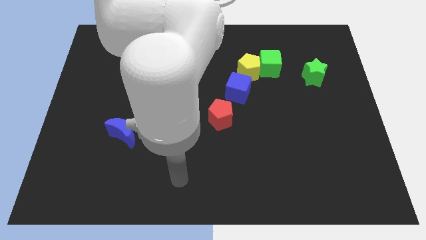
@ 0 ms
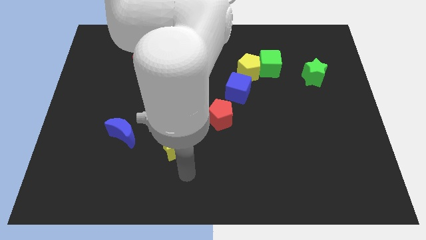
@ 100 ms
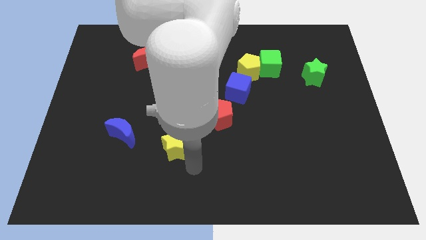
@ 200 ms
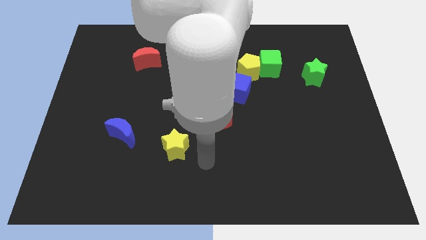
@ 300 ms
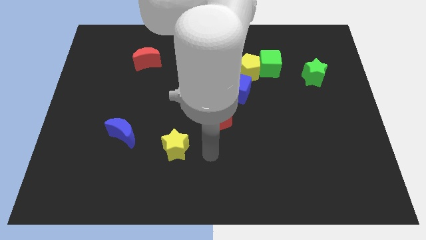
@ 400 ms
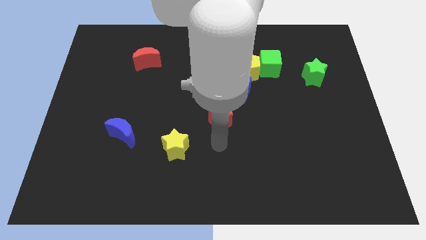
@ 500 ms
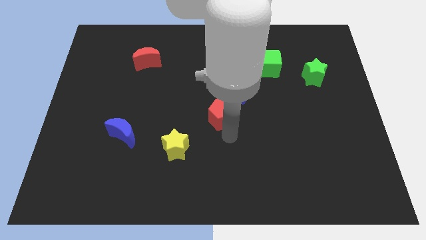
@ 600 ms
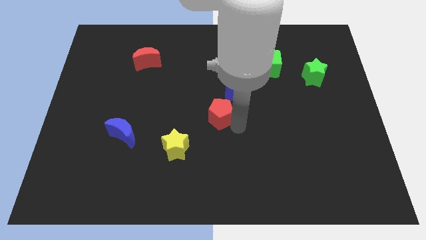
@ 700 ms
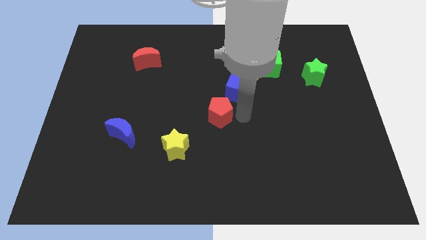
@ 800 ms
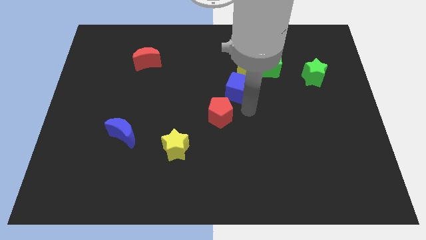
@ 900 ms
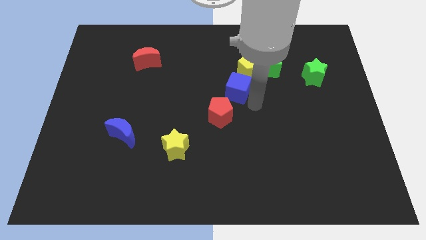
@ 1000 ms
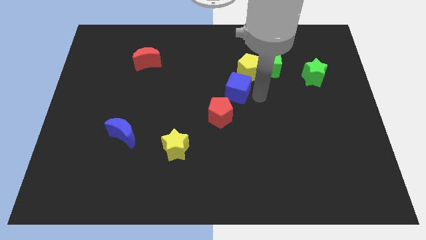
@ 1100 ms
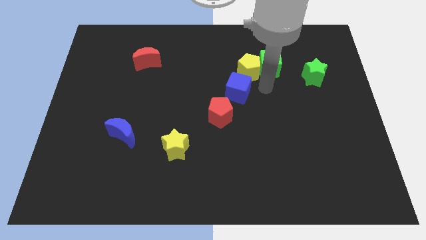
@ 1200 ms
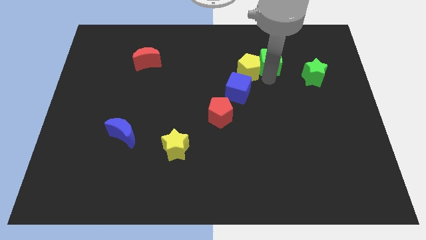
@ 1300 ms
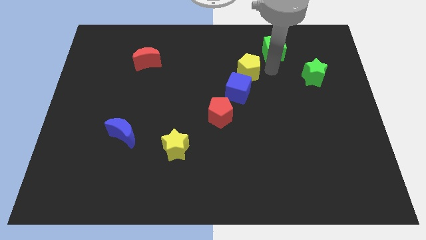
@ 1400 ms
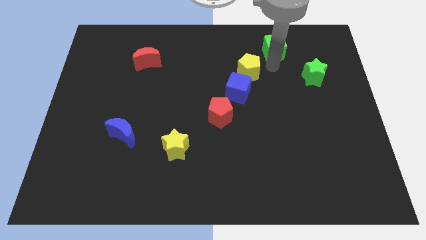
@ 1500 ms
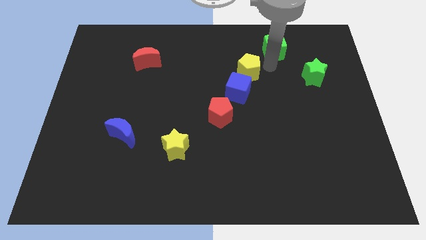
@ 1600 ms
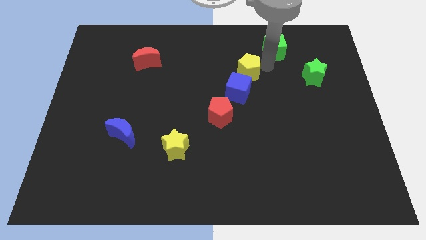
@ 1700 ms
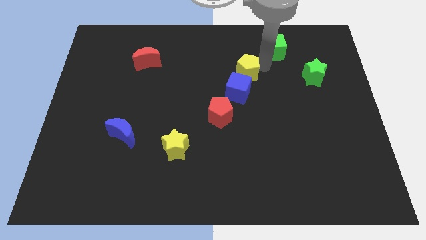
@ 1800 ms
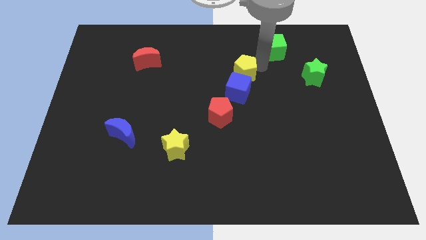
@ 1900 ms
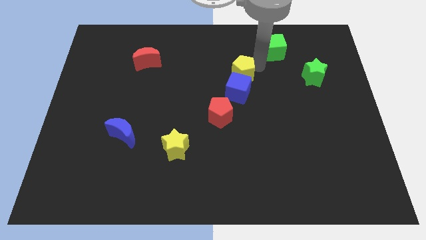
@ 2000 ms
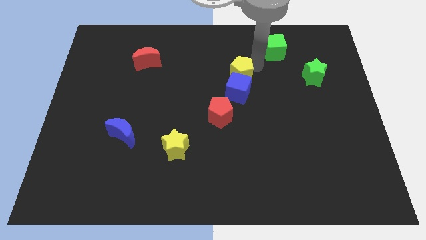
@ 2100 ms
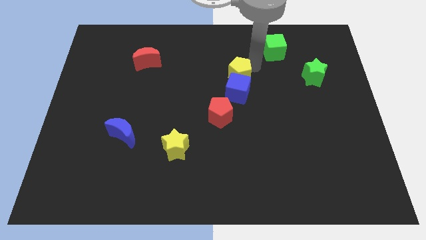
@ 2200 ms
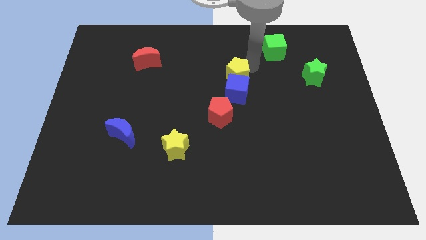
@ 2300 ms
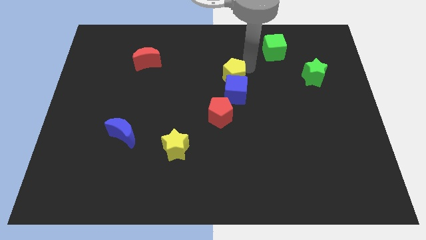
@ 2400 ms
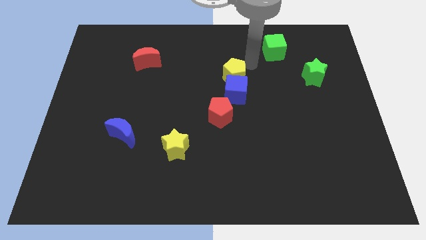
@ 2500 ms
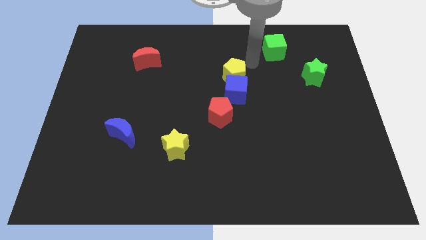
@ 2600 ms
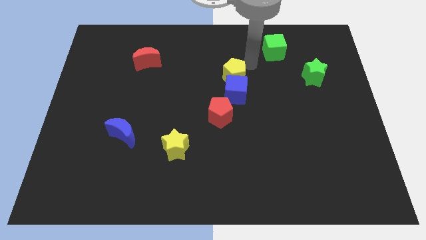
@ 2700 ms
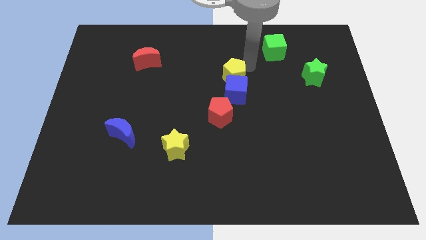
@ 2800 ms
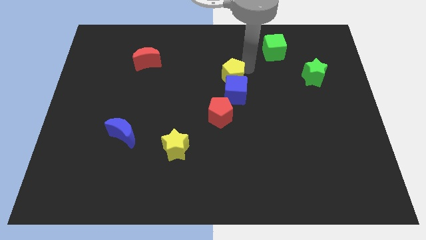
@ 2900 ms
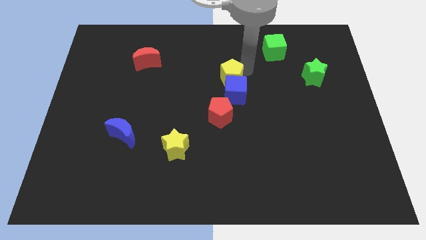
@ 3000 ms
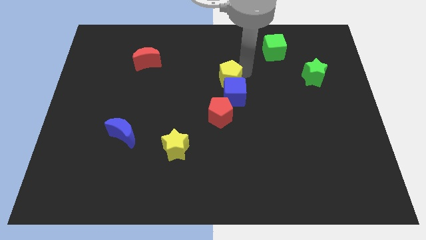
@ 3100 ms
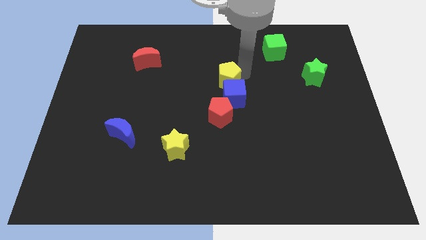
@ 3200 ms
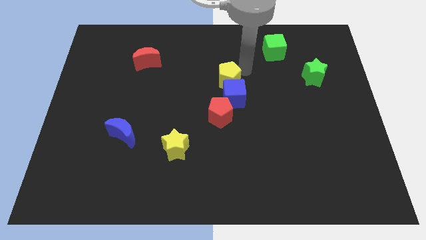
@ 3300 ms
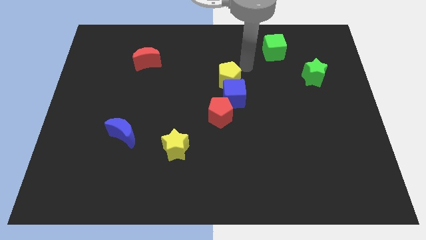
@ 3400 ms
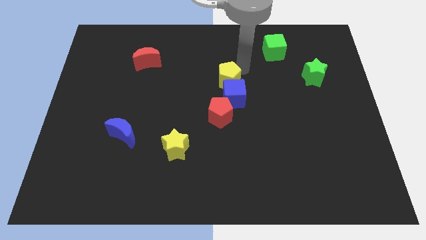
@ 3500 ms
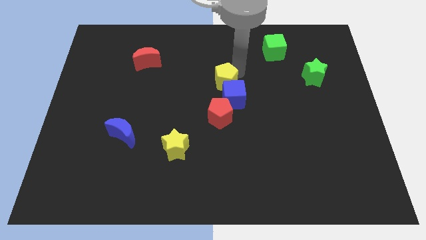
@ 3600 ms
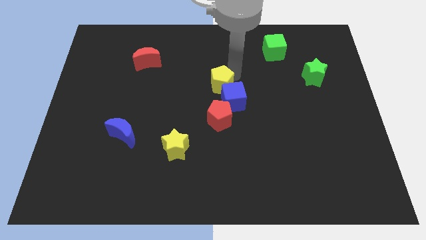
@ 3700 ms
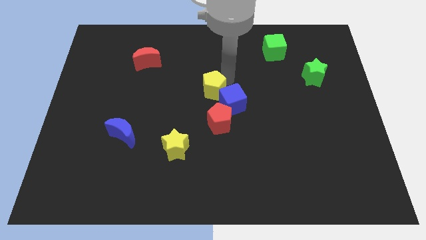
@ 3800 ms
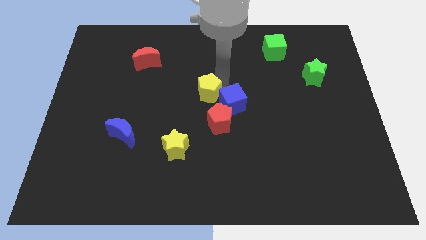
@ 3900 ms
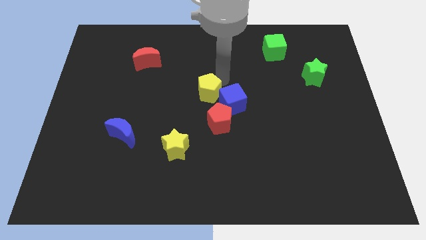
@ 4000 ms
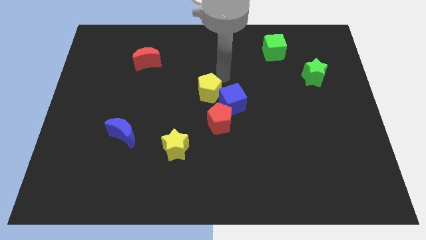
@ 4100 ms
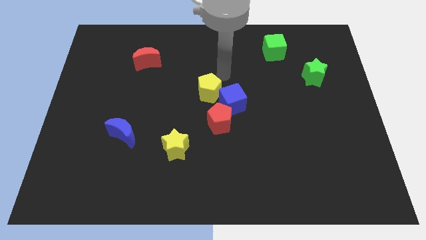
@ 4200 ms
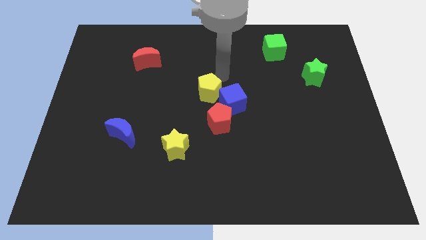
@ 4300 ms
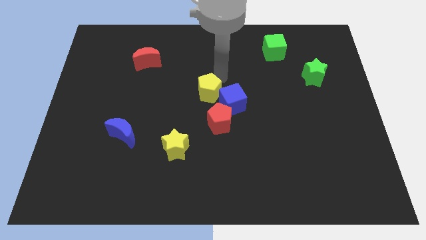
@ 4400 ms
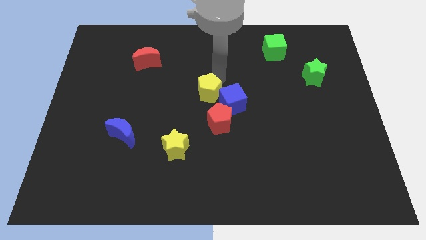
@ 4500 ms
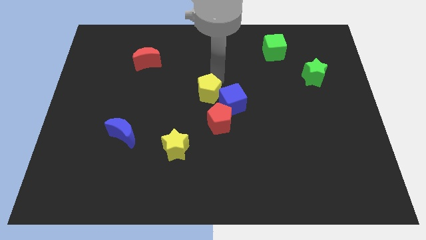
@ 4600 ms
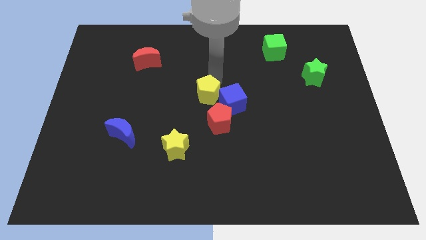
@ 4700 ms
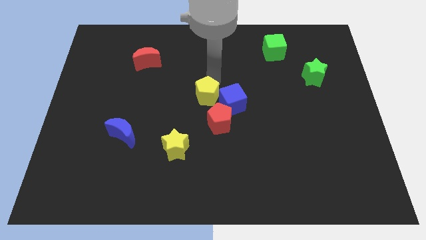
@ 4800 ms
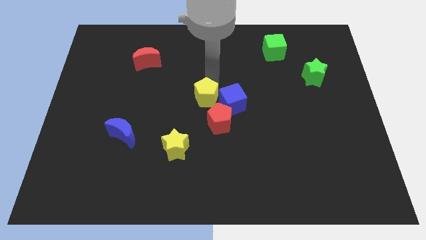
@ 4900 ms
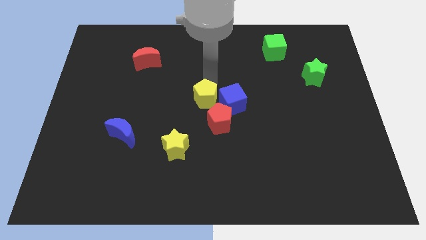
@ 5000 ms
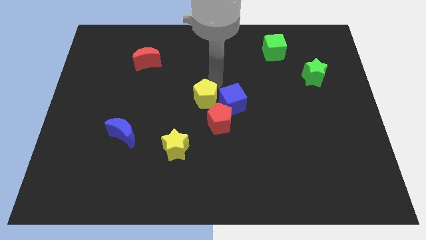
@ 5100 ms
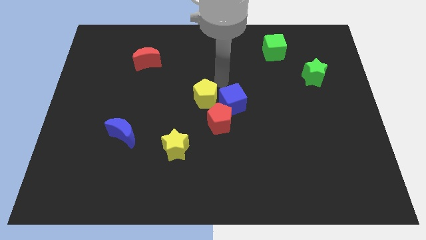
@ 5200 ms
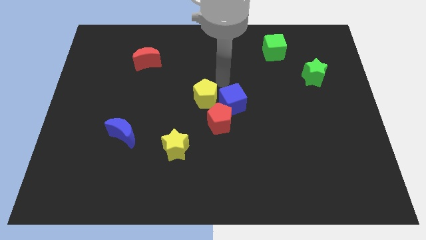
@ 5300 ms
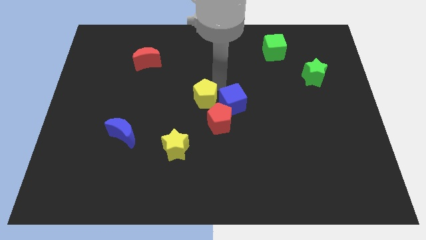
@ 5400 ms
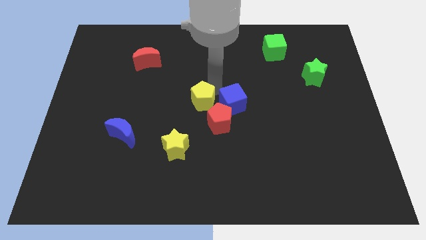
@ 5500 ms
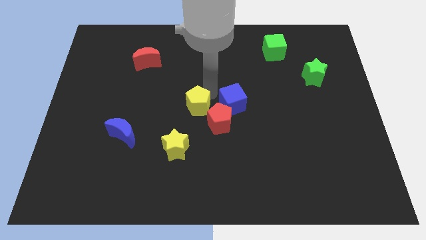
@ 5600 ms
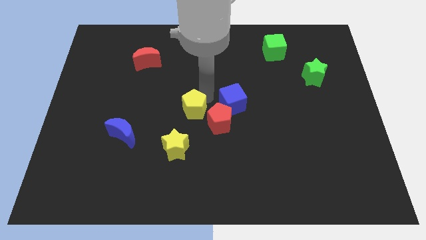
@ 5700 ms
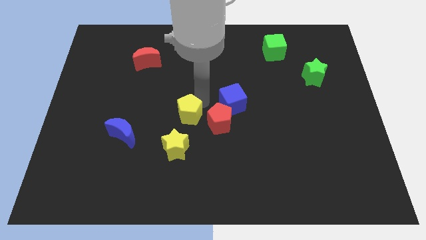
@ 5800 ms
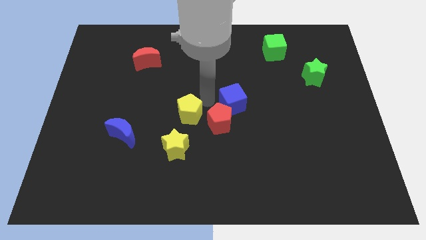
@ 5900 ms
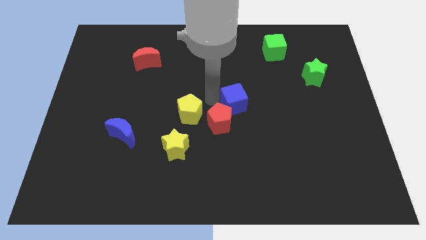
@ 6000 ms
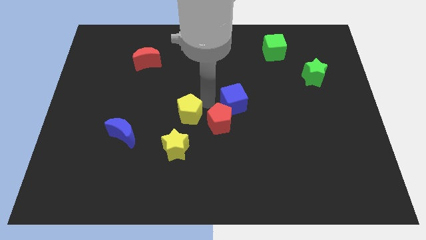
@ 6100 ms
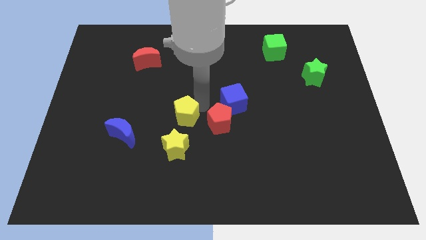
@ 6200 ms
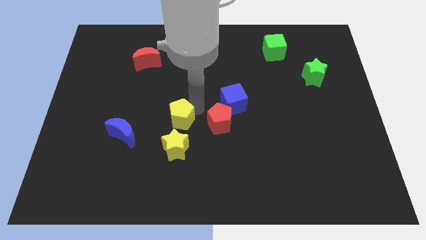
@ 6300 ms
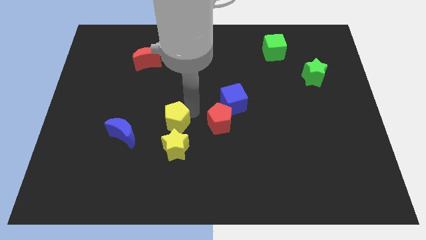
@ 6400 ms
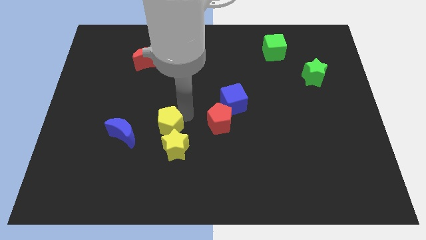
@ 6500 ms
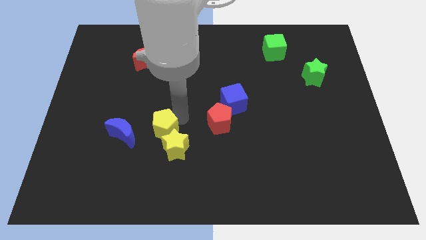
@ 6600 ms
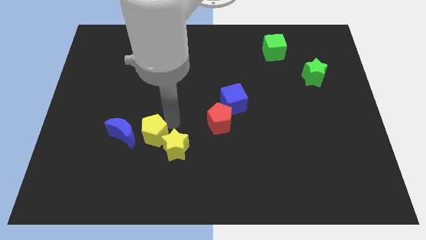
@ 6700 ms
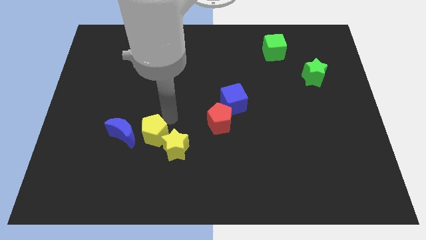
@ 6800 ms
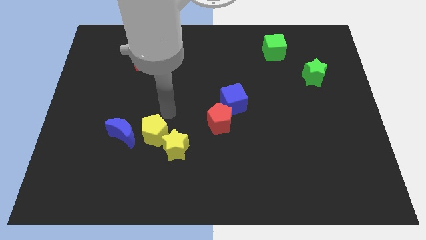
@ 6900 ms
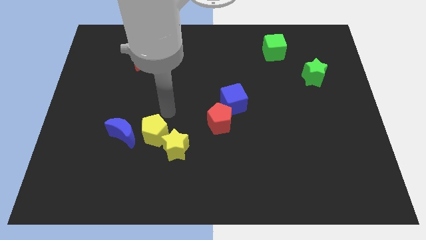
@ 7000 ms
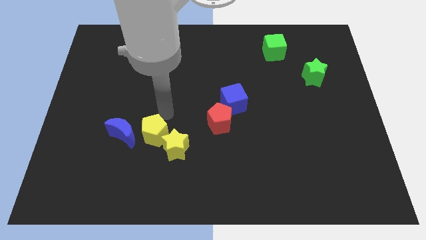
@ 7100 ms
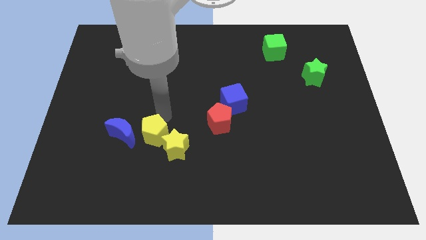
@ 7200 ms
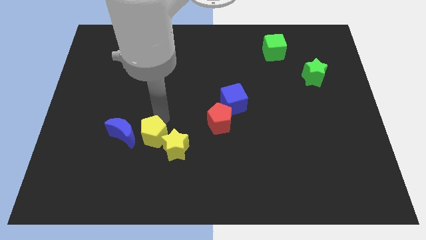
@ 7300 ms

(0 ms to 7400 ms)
put the yellow pentagon to the bottom right side of the blue moon
